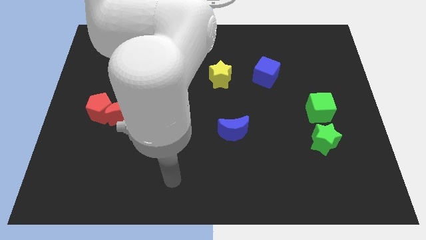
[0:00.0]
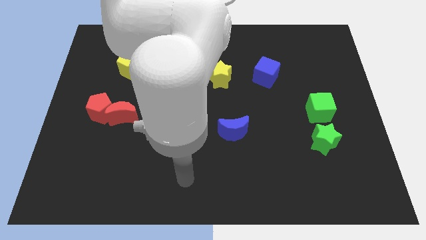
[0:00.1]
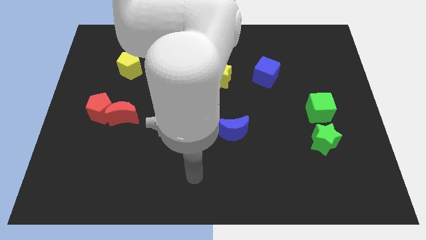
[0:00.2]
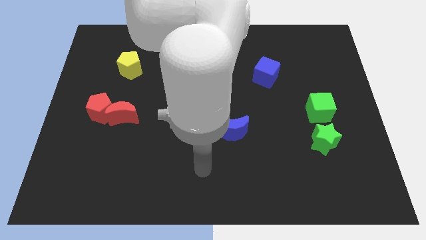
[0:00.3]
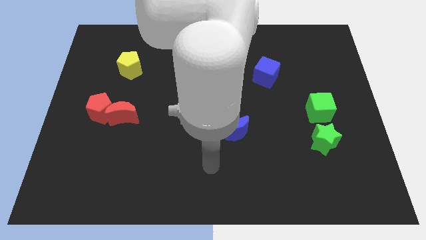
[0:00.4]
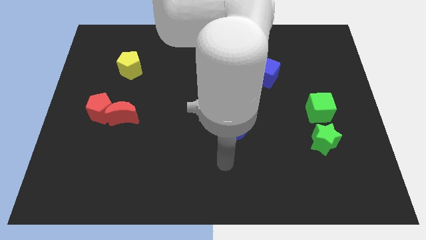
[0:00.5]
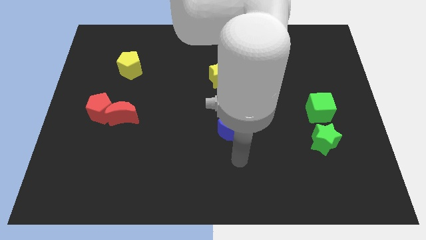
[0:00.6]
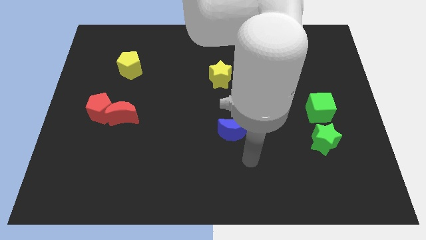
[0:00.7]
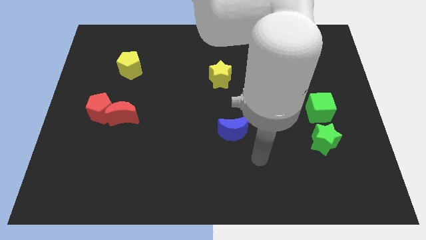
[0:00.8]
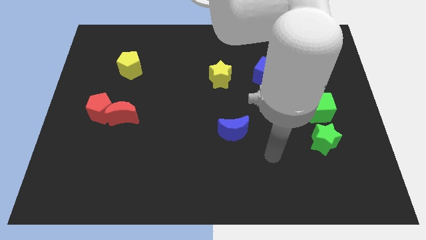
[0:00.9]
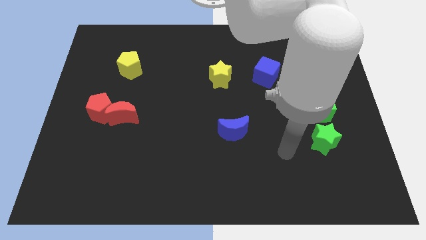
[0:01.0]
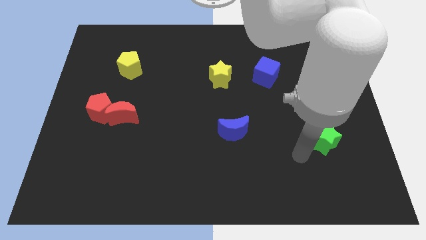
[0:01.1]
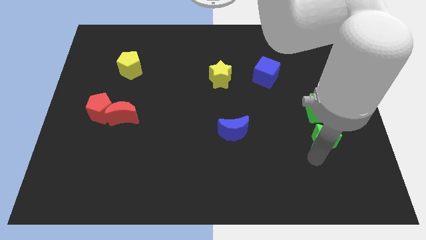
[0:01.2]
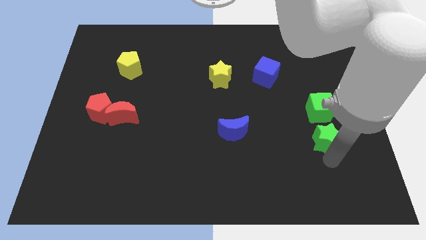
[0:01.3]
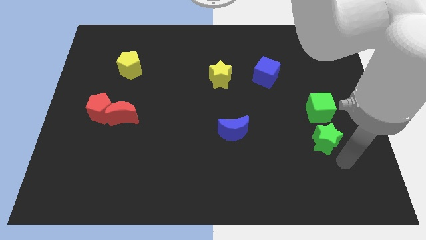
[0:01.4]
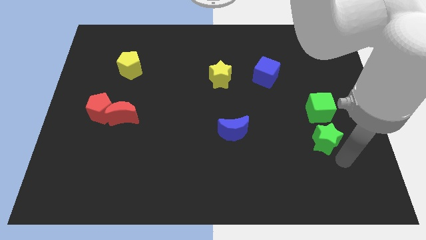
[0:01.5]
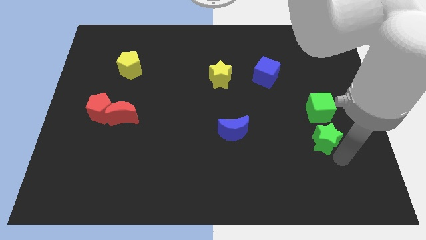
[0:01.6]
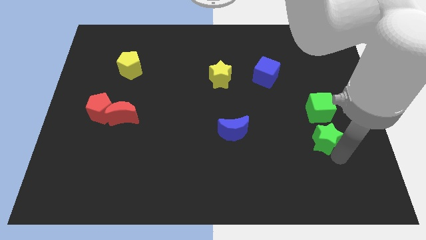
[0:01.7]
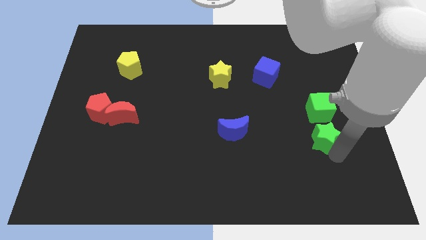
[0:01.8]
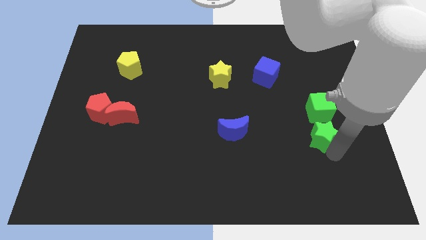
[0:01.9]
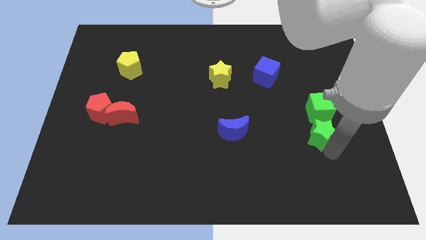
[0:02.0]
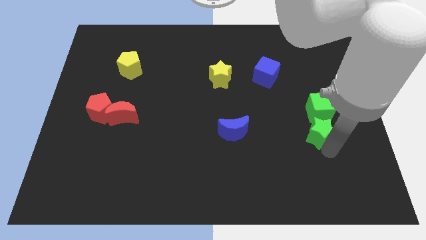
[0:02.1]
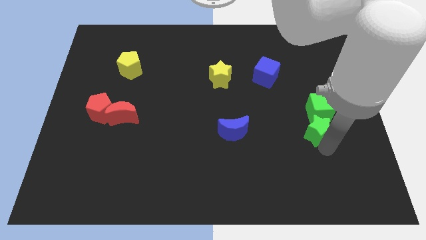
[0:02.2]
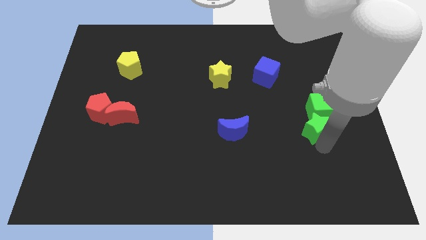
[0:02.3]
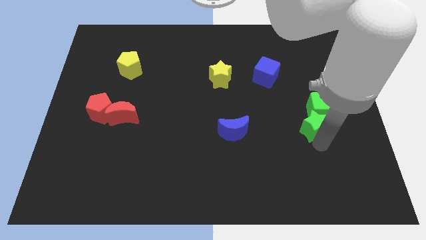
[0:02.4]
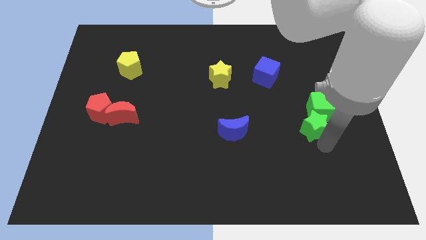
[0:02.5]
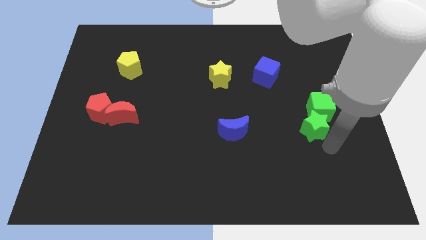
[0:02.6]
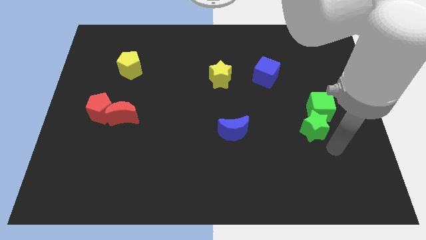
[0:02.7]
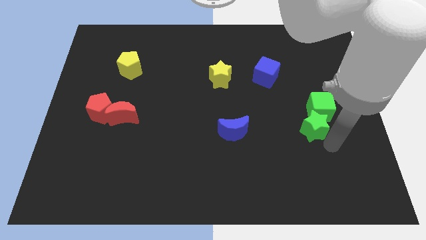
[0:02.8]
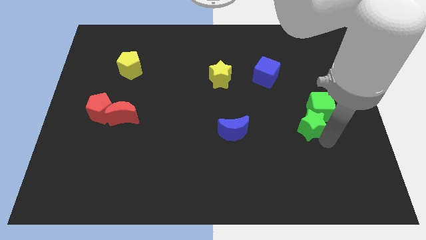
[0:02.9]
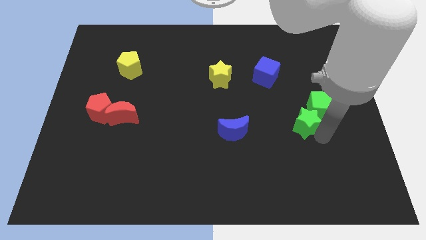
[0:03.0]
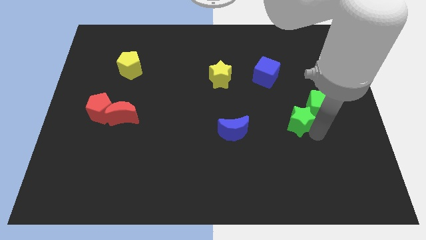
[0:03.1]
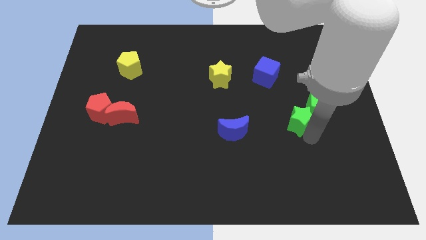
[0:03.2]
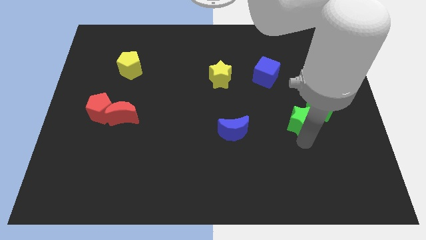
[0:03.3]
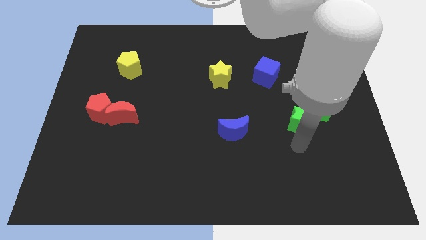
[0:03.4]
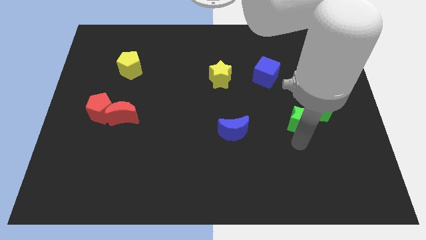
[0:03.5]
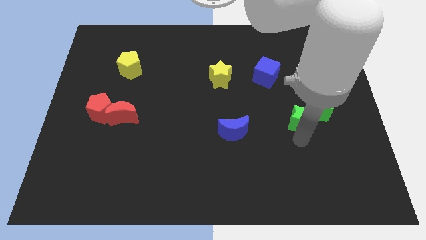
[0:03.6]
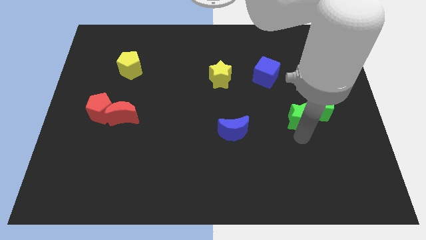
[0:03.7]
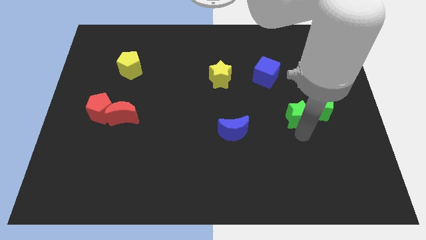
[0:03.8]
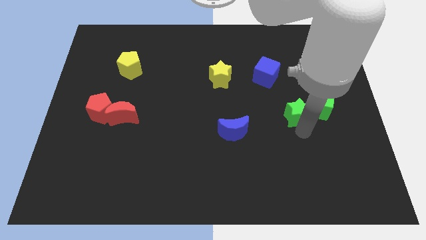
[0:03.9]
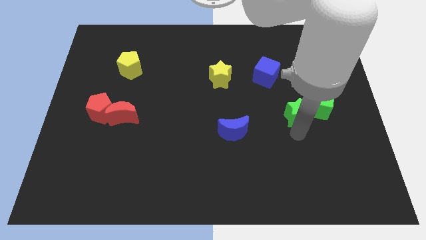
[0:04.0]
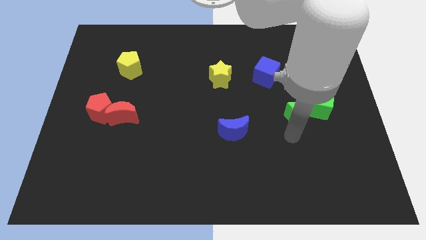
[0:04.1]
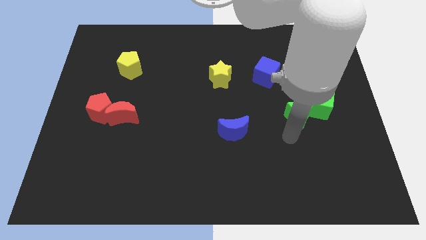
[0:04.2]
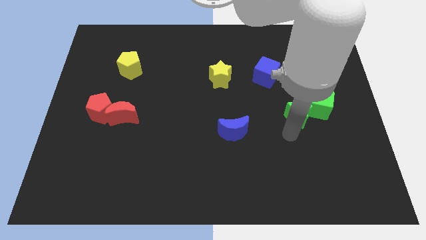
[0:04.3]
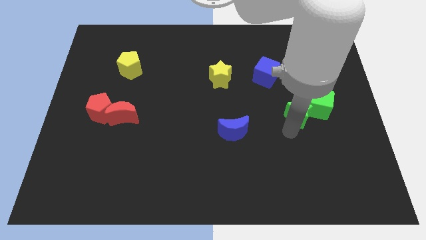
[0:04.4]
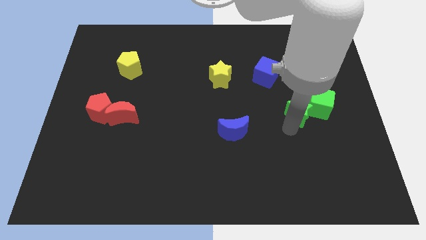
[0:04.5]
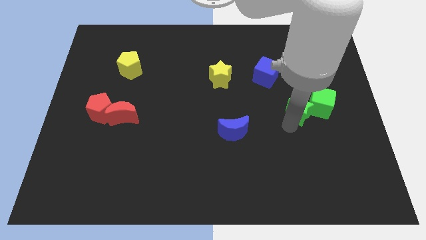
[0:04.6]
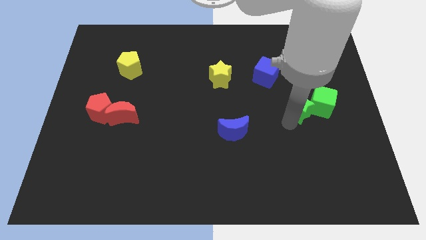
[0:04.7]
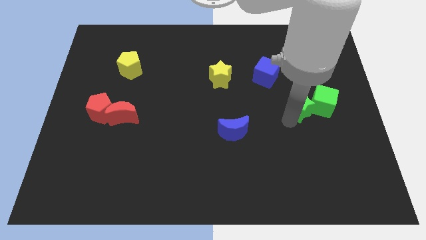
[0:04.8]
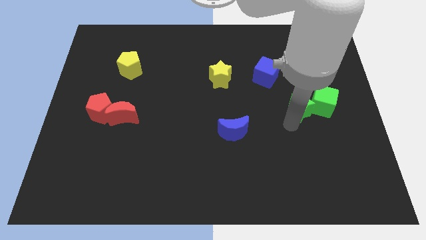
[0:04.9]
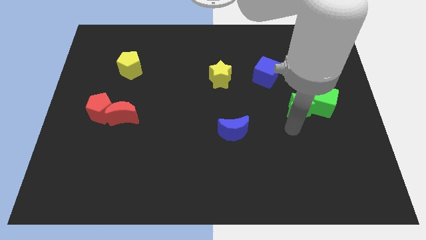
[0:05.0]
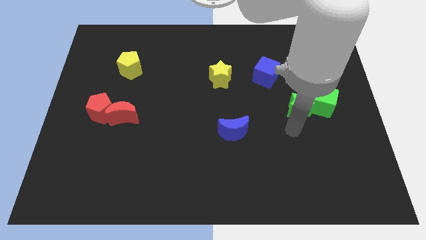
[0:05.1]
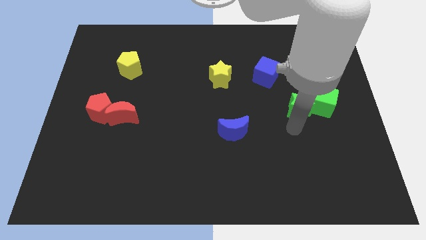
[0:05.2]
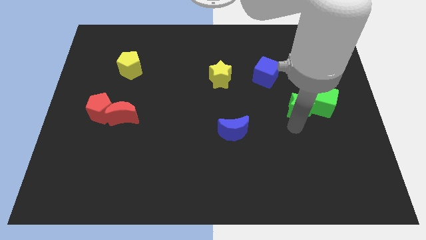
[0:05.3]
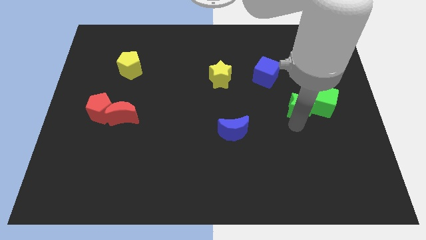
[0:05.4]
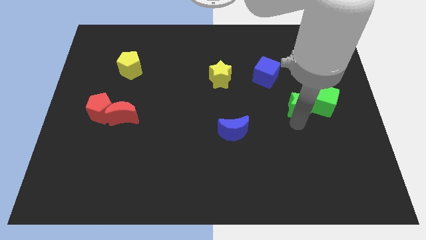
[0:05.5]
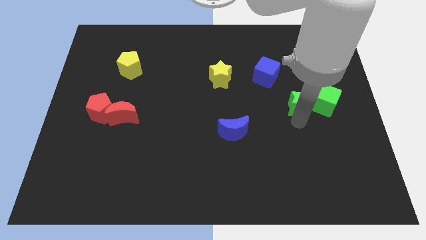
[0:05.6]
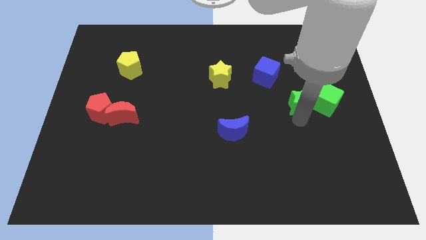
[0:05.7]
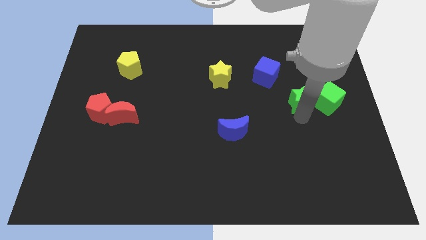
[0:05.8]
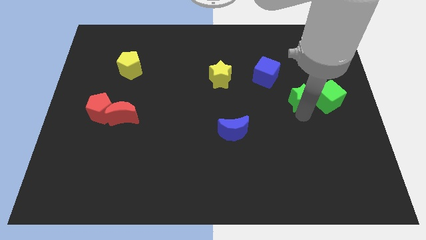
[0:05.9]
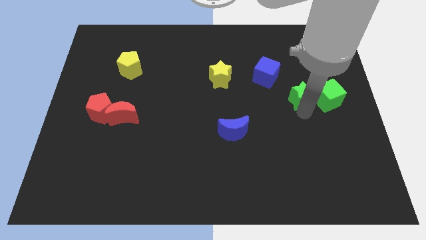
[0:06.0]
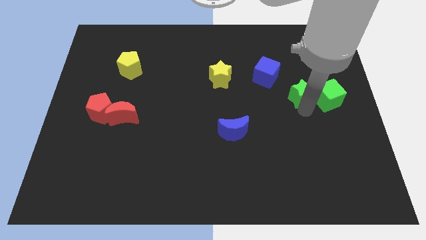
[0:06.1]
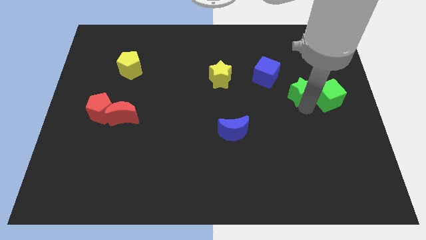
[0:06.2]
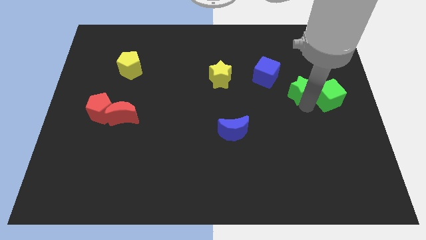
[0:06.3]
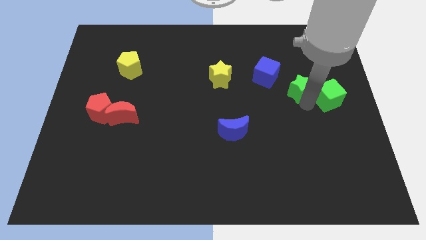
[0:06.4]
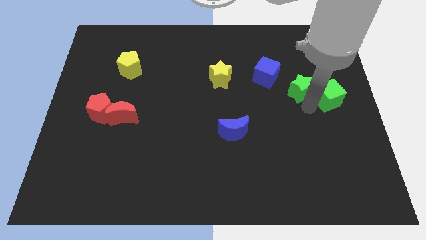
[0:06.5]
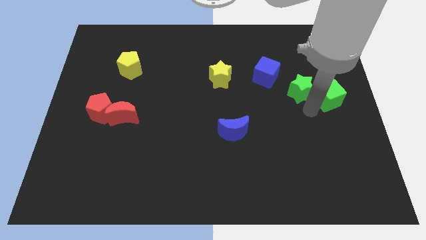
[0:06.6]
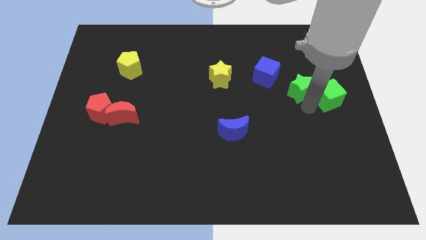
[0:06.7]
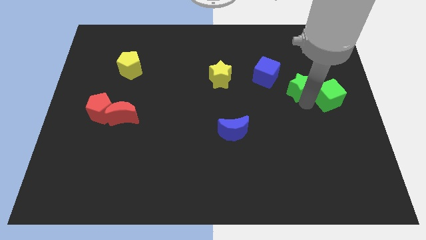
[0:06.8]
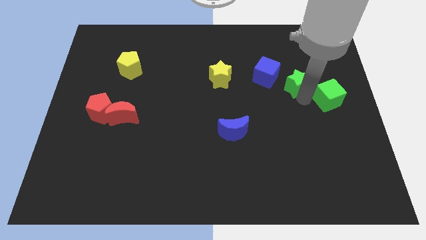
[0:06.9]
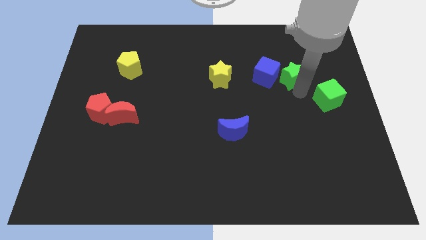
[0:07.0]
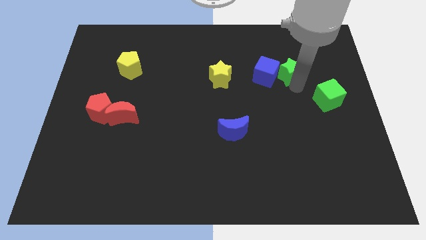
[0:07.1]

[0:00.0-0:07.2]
move the green star to the top right side of the blue cube

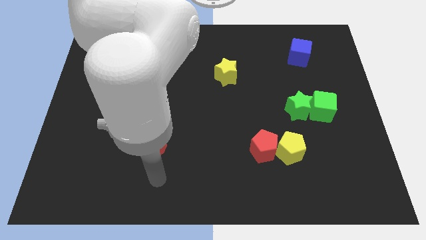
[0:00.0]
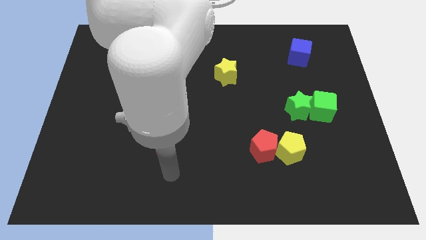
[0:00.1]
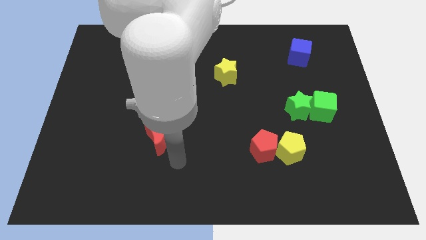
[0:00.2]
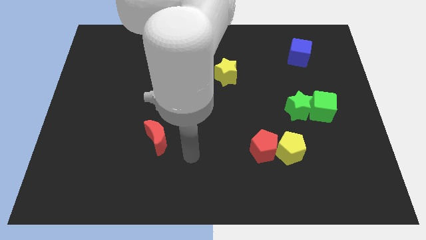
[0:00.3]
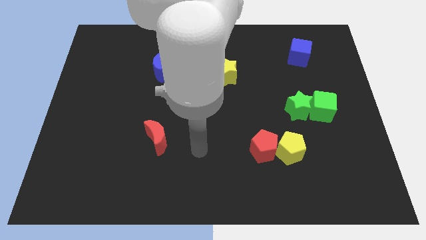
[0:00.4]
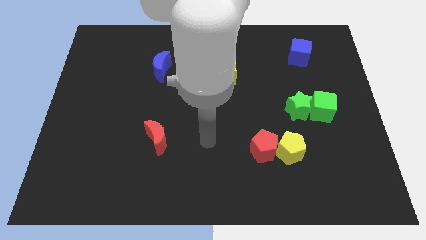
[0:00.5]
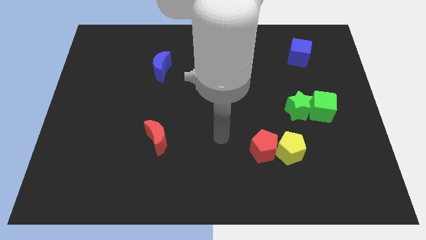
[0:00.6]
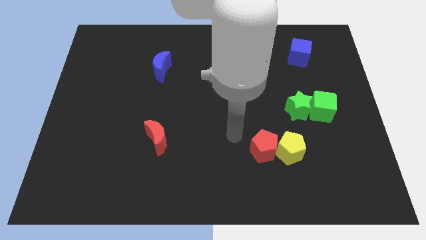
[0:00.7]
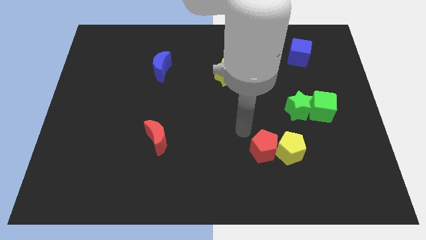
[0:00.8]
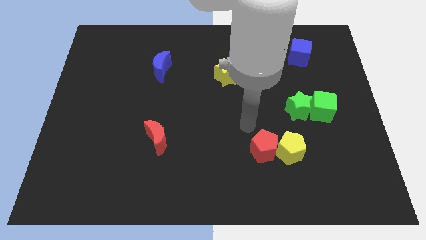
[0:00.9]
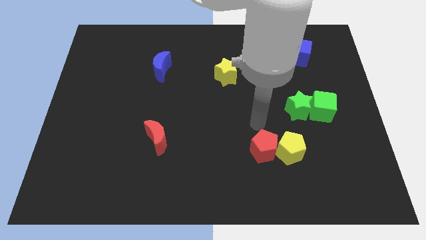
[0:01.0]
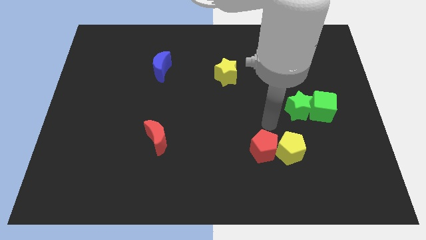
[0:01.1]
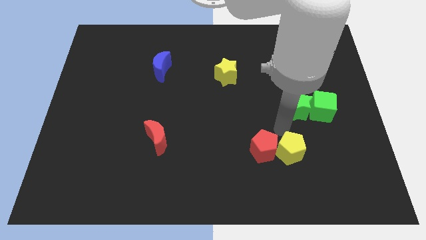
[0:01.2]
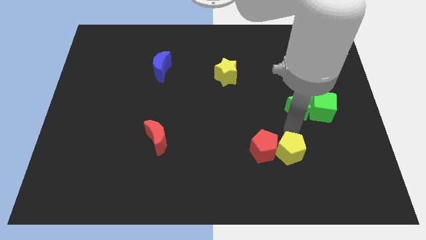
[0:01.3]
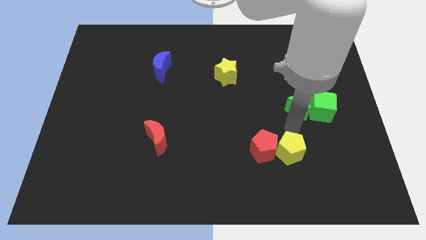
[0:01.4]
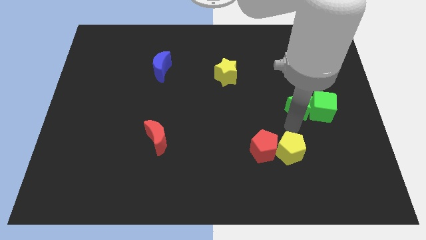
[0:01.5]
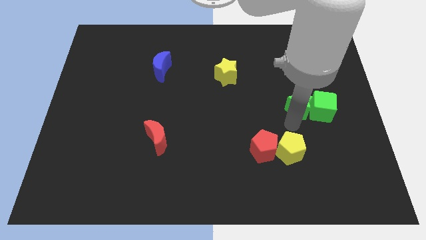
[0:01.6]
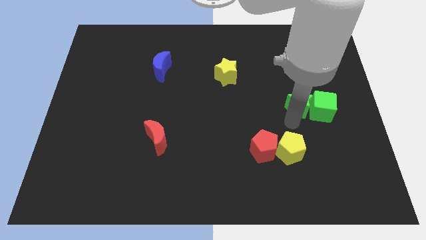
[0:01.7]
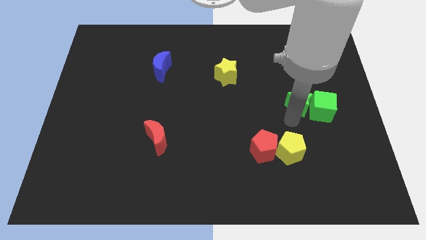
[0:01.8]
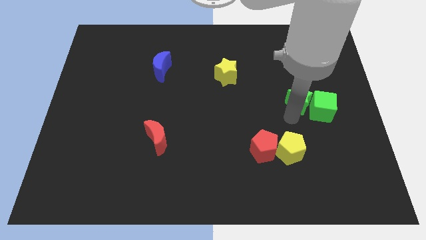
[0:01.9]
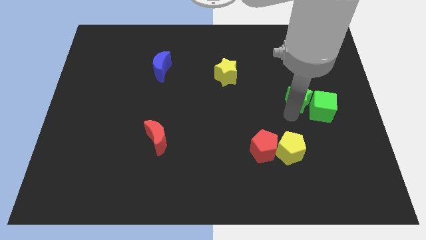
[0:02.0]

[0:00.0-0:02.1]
push the green star to the bottom side of the blue cube
